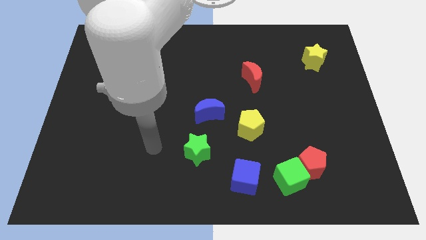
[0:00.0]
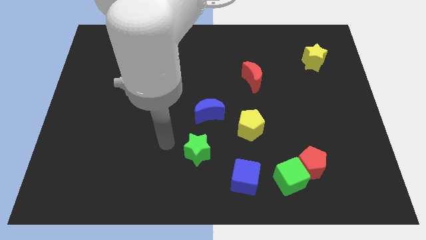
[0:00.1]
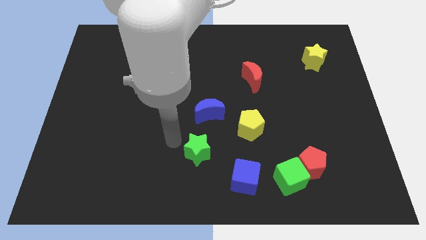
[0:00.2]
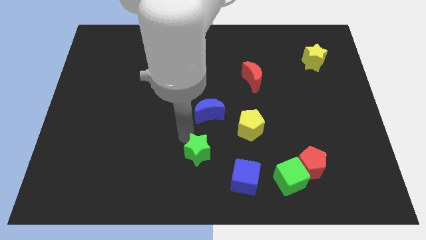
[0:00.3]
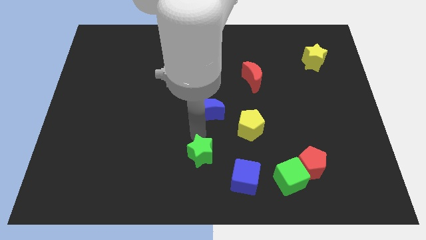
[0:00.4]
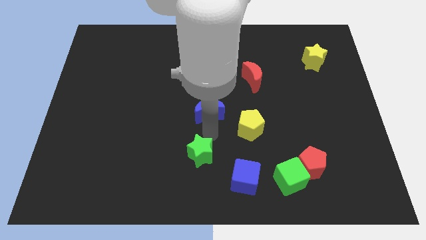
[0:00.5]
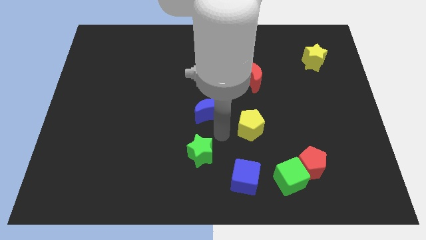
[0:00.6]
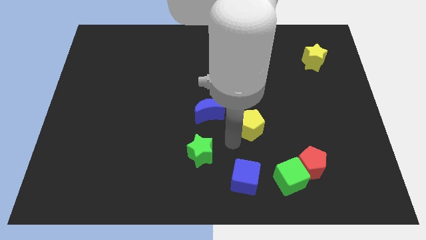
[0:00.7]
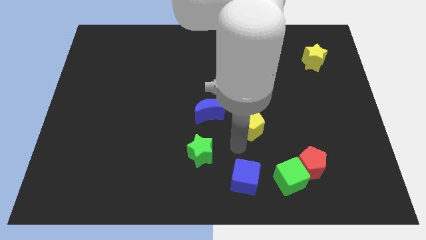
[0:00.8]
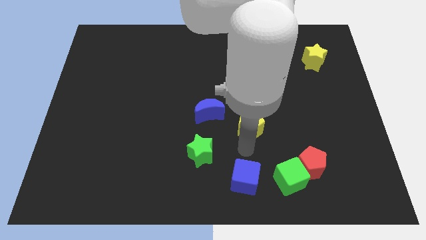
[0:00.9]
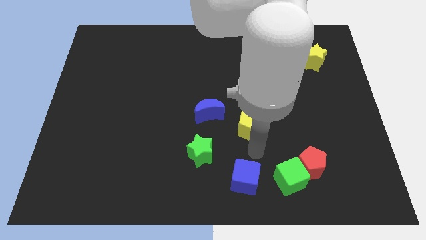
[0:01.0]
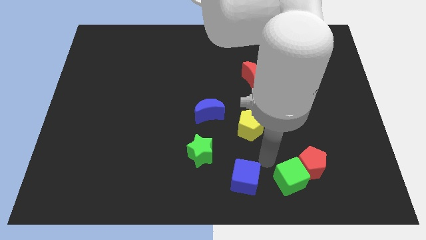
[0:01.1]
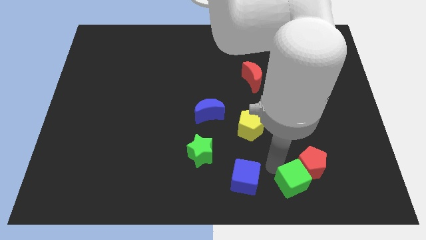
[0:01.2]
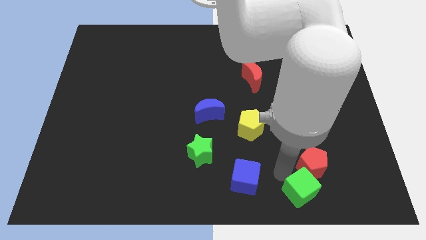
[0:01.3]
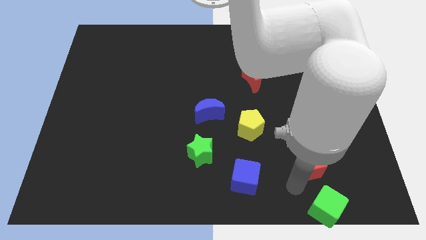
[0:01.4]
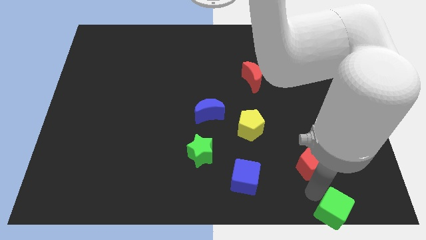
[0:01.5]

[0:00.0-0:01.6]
pull the red pentagon apart from the green cube

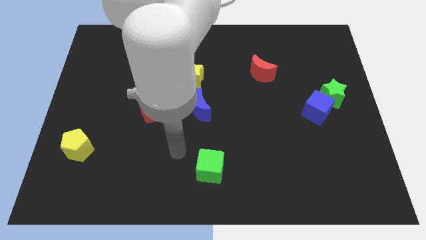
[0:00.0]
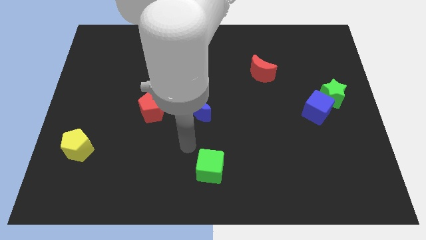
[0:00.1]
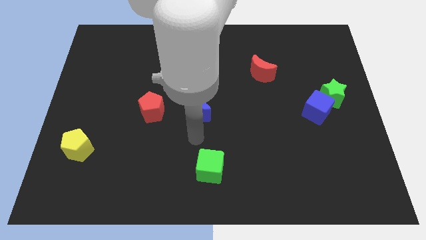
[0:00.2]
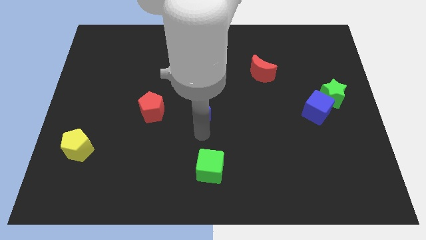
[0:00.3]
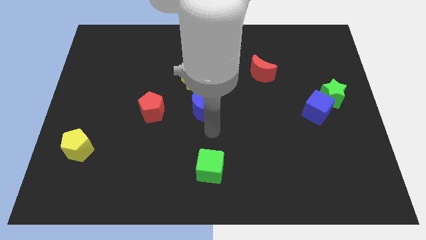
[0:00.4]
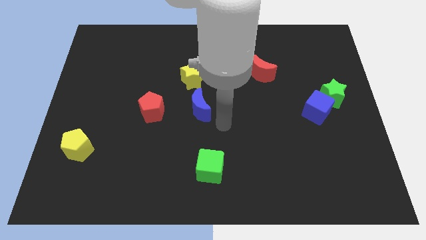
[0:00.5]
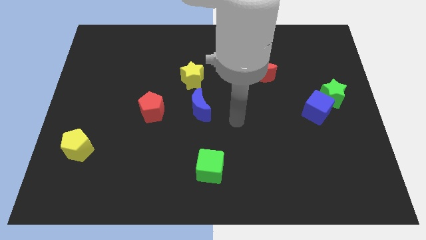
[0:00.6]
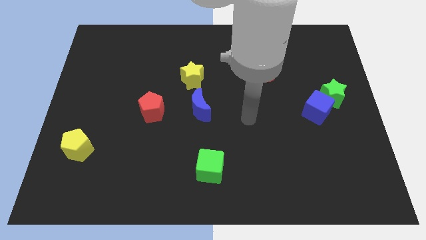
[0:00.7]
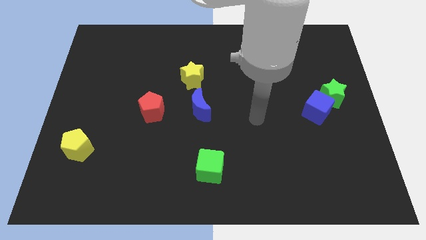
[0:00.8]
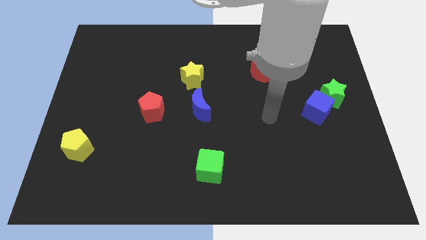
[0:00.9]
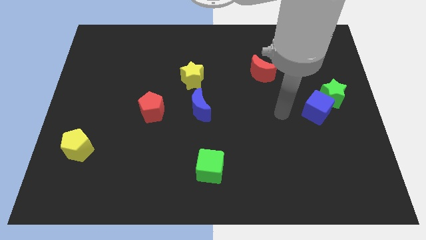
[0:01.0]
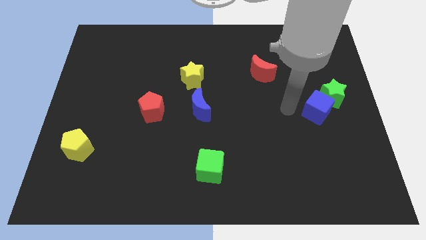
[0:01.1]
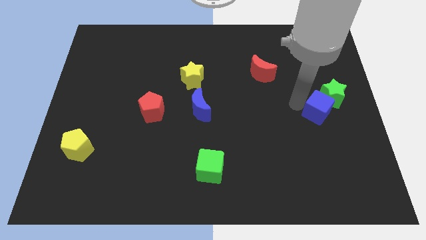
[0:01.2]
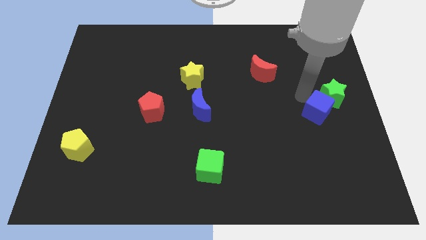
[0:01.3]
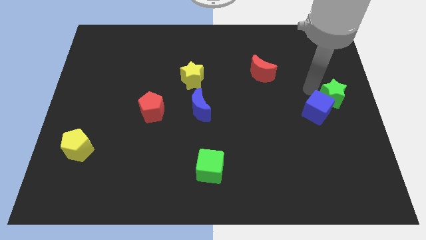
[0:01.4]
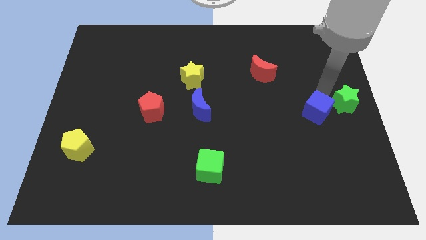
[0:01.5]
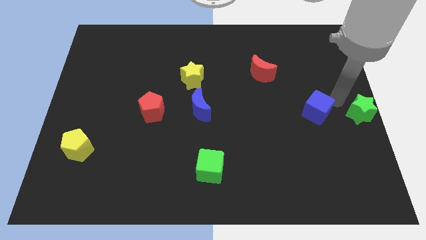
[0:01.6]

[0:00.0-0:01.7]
move the blue cube away from the green star

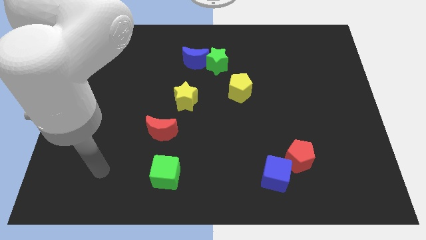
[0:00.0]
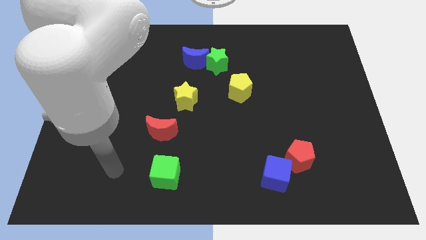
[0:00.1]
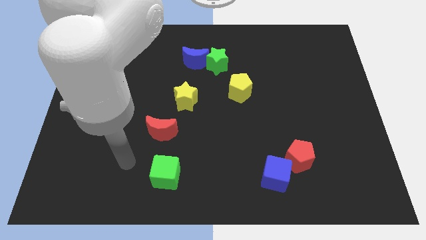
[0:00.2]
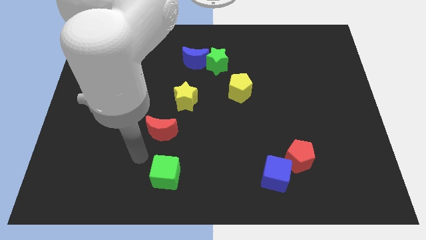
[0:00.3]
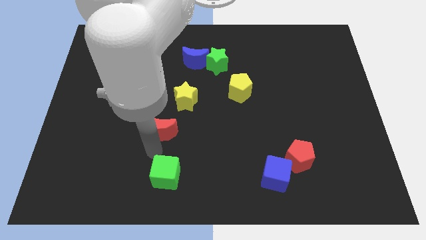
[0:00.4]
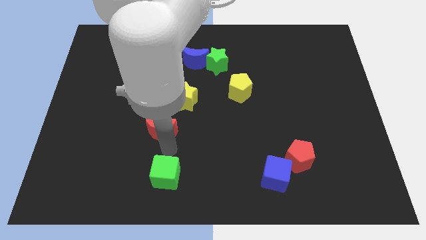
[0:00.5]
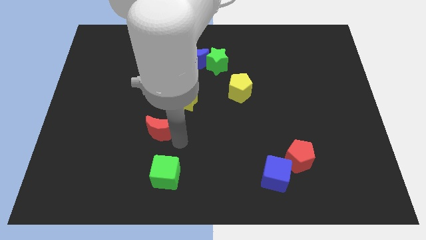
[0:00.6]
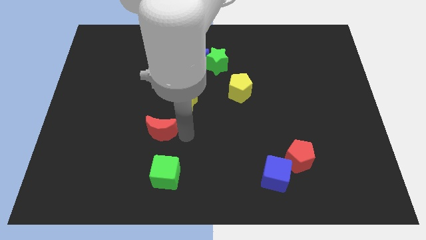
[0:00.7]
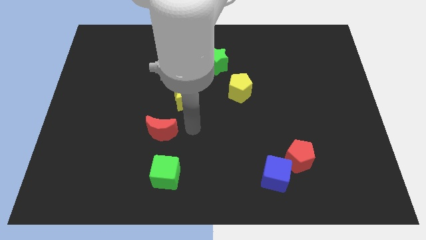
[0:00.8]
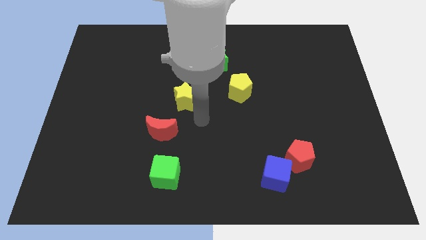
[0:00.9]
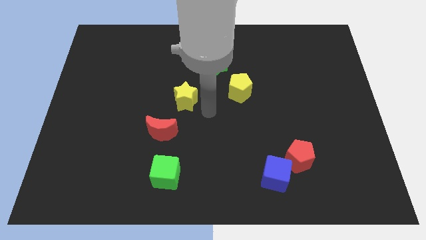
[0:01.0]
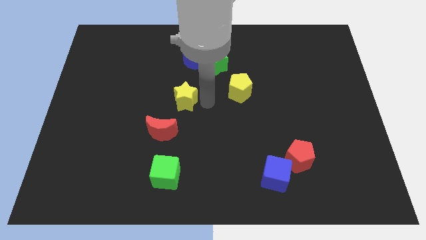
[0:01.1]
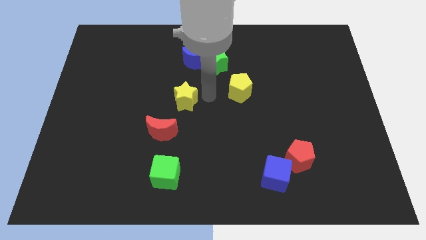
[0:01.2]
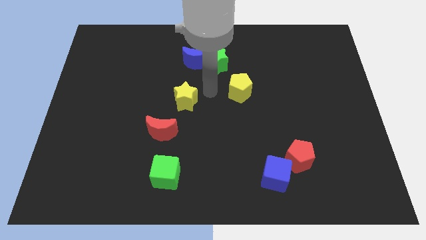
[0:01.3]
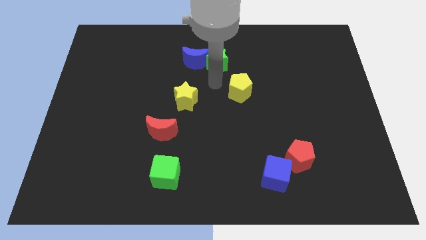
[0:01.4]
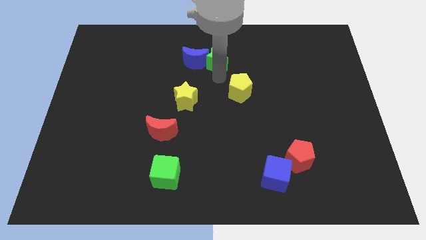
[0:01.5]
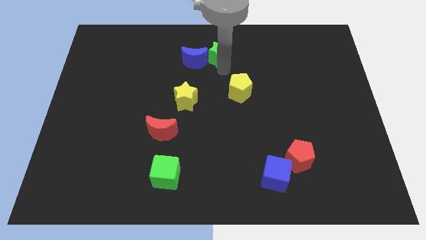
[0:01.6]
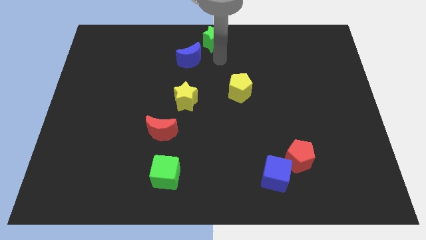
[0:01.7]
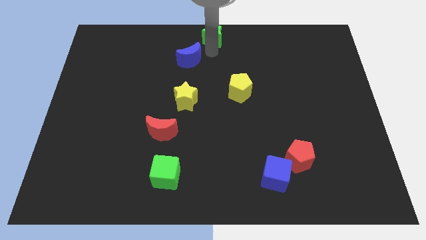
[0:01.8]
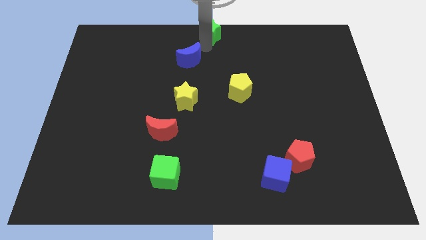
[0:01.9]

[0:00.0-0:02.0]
separate the blue moon from the green star

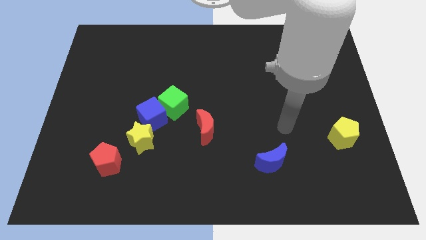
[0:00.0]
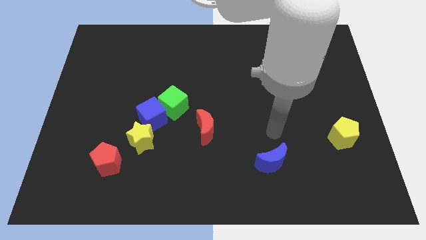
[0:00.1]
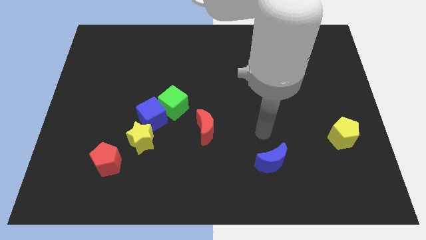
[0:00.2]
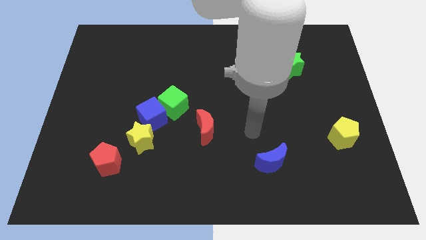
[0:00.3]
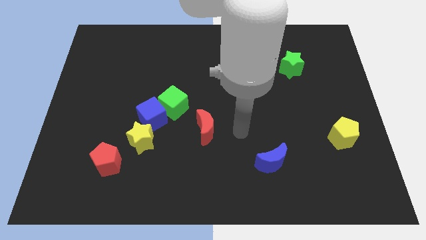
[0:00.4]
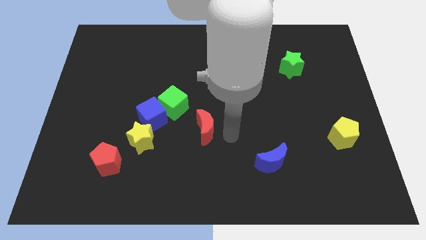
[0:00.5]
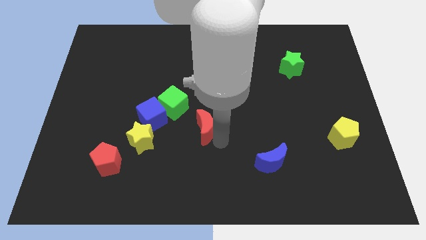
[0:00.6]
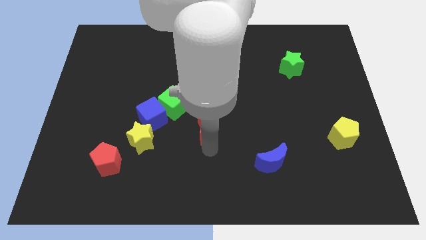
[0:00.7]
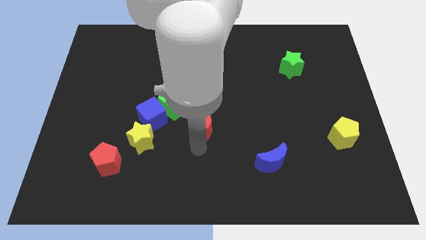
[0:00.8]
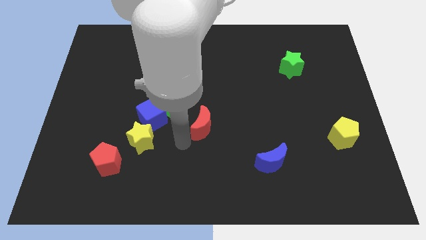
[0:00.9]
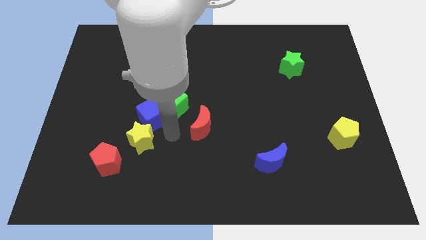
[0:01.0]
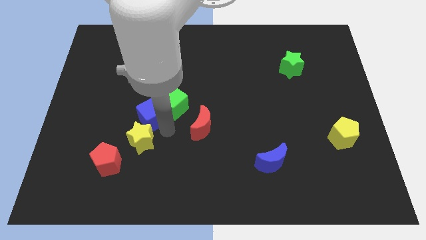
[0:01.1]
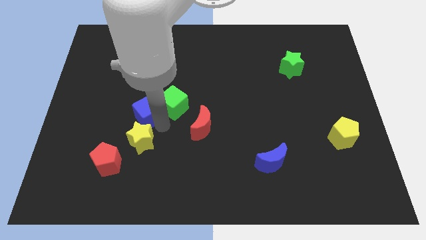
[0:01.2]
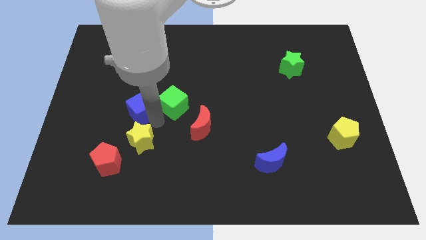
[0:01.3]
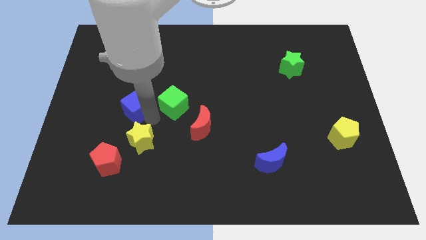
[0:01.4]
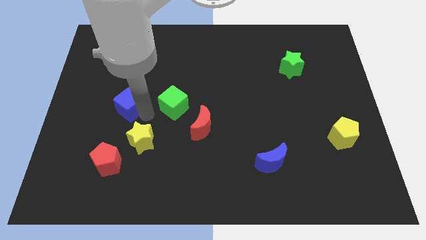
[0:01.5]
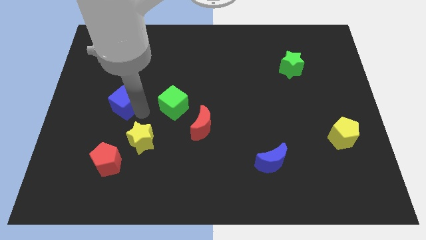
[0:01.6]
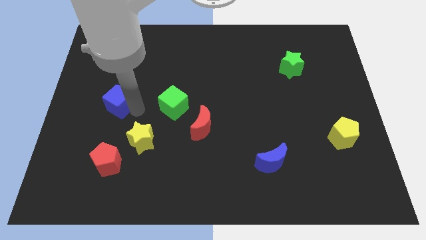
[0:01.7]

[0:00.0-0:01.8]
pull the blue cube apart from the green cube and yellow star

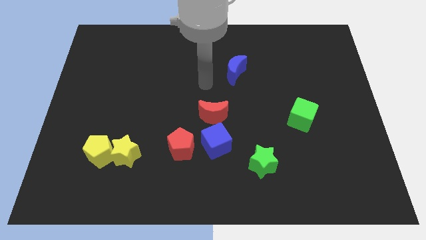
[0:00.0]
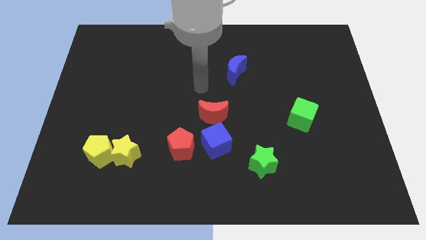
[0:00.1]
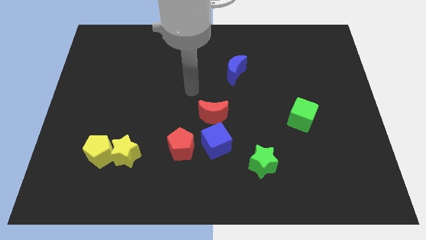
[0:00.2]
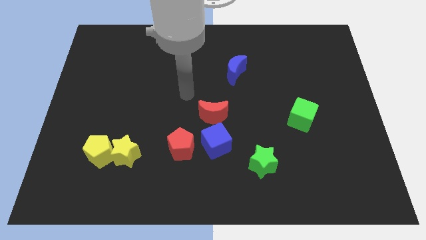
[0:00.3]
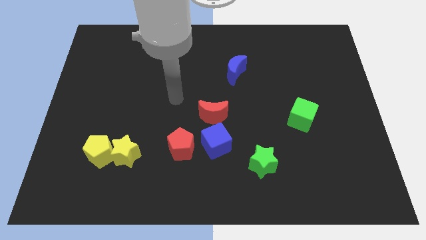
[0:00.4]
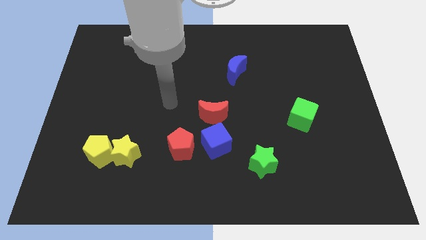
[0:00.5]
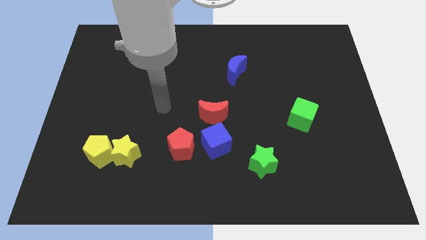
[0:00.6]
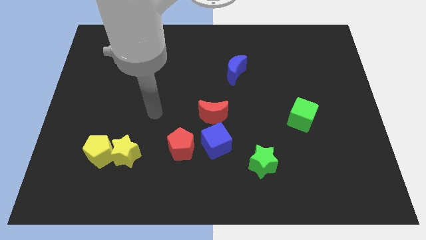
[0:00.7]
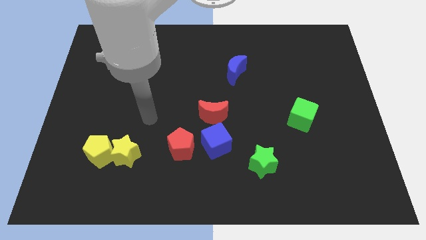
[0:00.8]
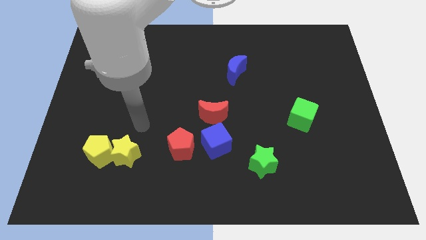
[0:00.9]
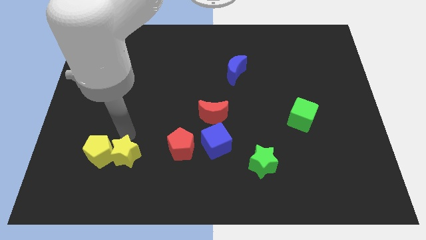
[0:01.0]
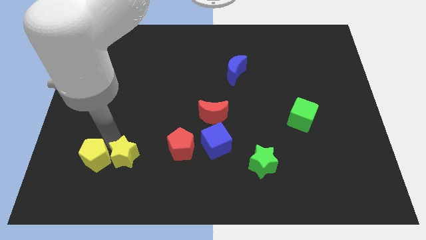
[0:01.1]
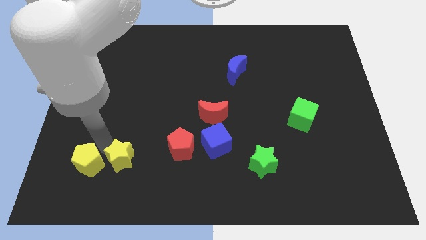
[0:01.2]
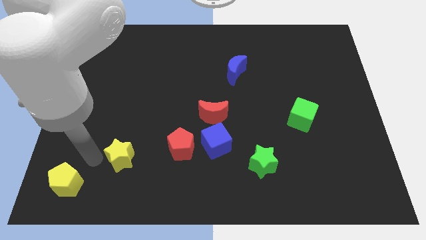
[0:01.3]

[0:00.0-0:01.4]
separate the yellow star from the yellow pentagon

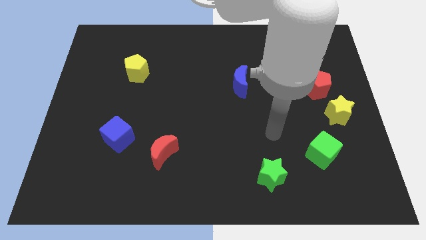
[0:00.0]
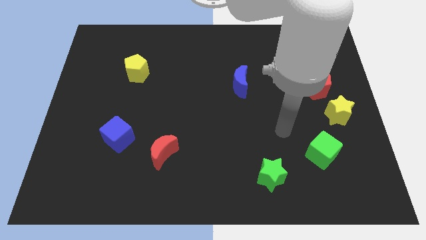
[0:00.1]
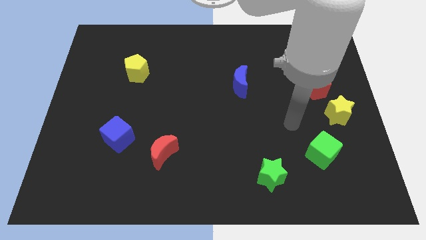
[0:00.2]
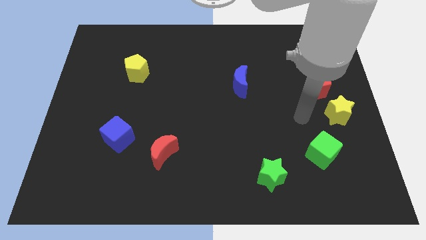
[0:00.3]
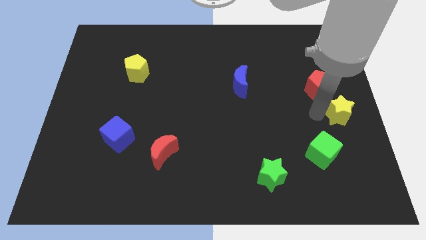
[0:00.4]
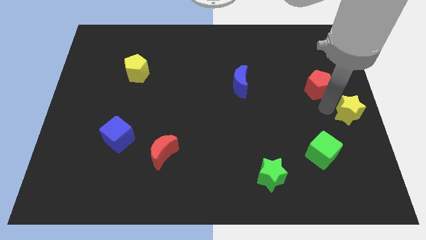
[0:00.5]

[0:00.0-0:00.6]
separate the red pentagon from the yellow star

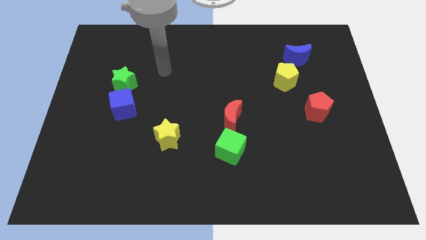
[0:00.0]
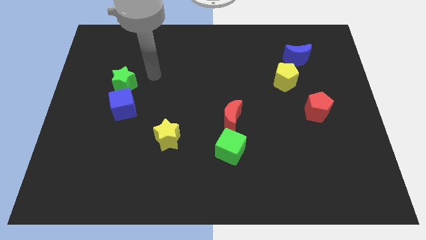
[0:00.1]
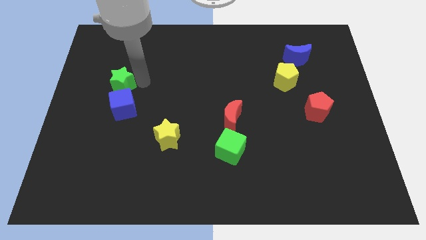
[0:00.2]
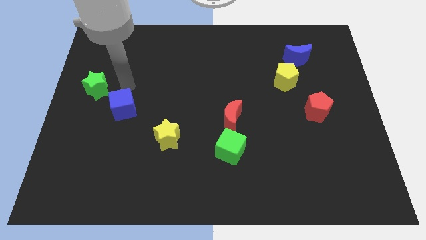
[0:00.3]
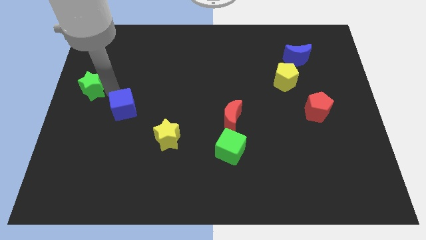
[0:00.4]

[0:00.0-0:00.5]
separate the blue cube from the green star
